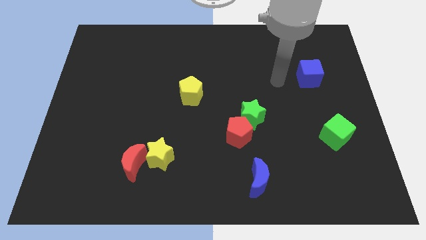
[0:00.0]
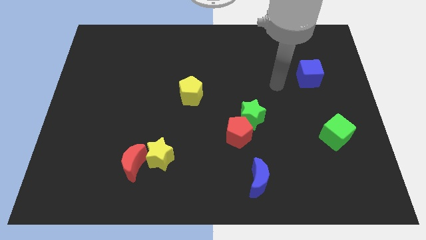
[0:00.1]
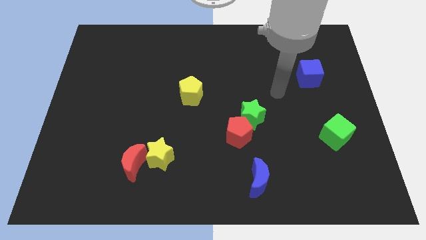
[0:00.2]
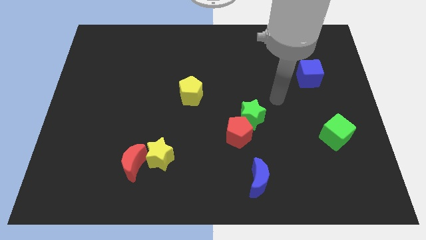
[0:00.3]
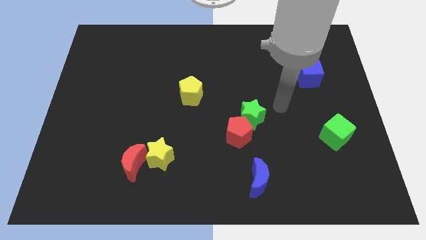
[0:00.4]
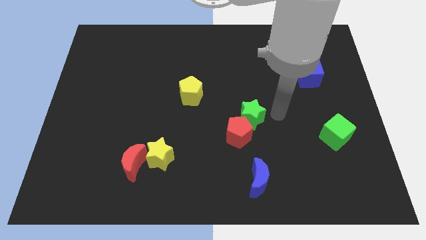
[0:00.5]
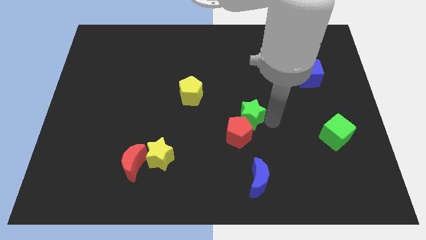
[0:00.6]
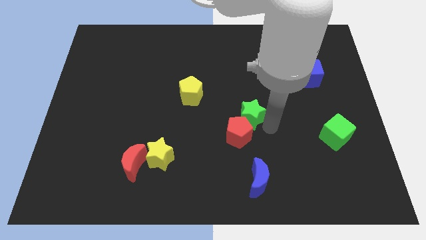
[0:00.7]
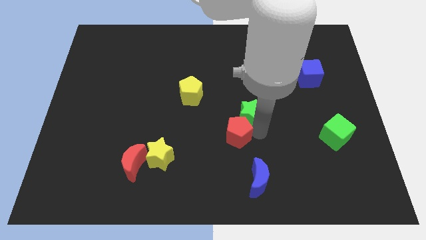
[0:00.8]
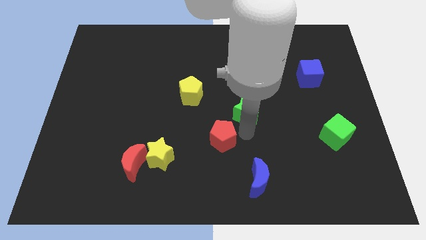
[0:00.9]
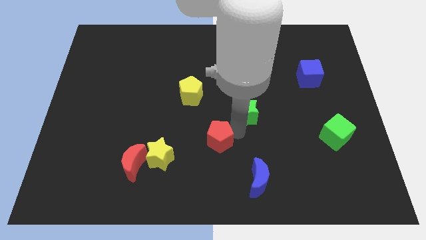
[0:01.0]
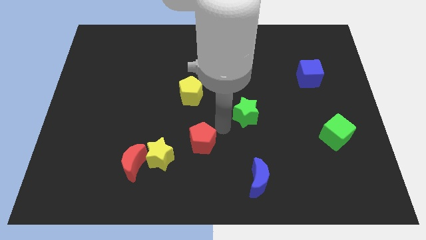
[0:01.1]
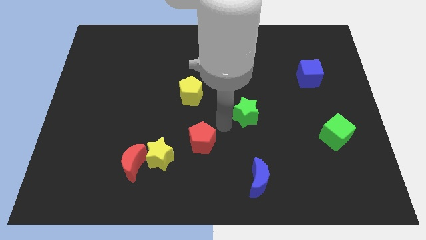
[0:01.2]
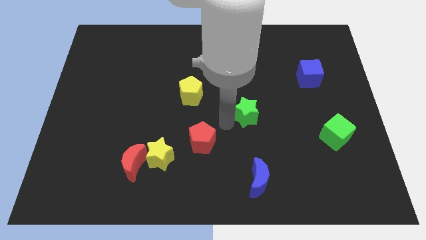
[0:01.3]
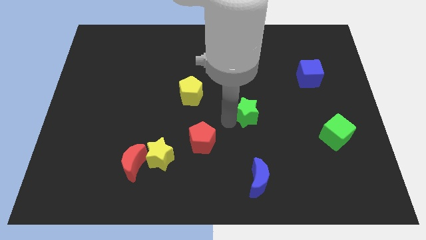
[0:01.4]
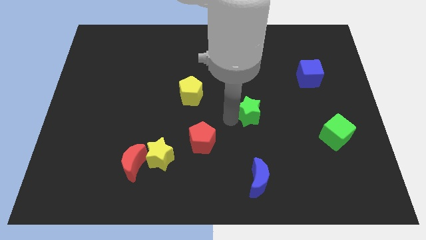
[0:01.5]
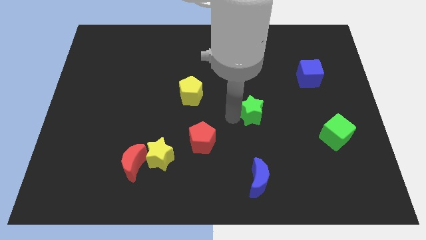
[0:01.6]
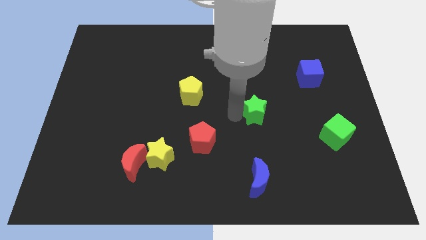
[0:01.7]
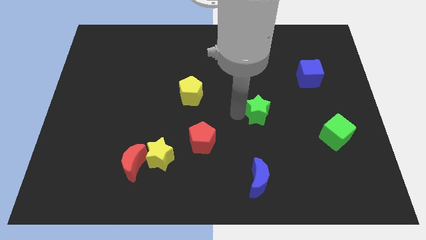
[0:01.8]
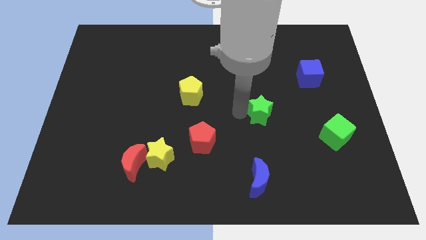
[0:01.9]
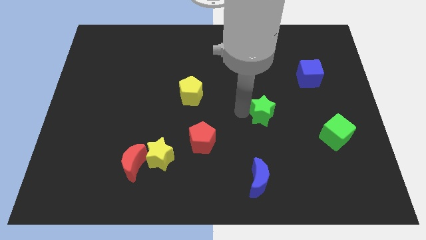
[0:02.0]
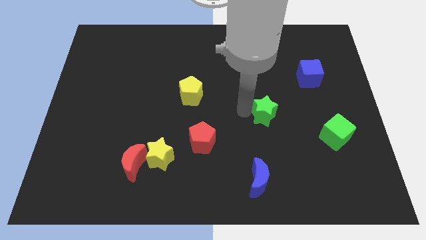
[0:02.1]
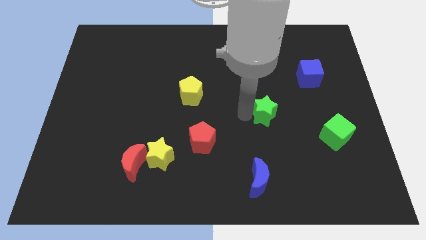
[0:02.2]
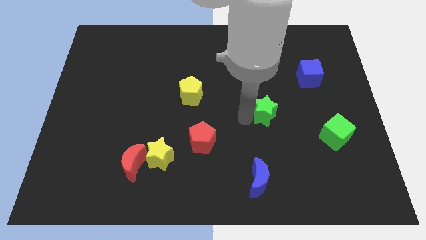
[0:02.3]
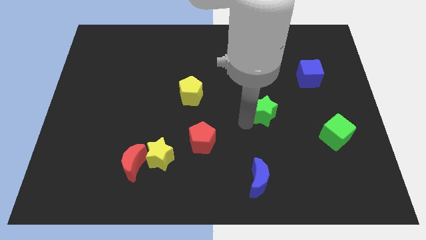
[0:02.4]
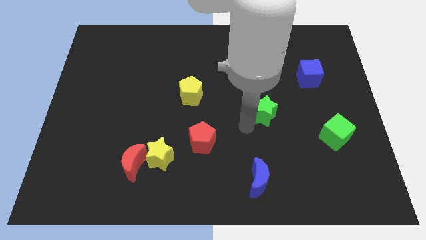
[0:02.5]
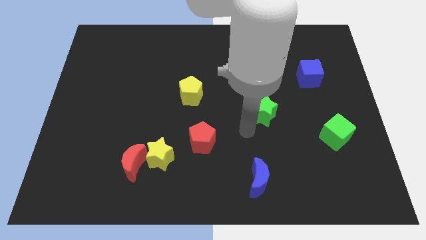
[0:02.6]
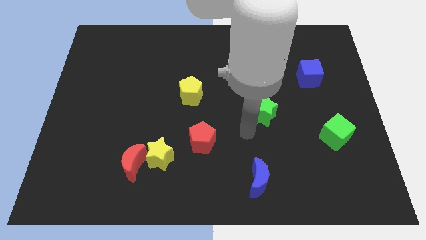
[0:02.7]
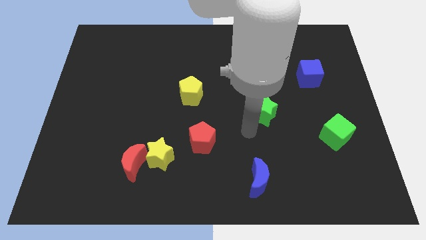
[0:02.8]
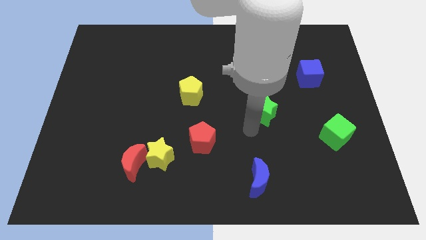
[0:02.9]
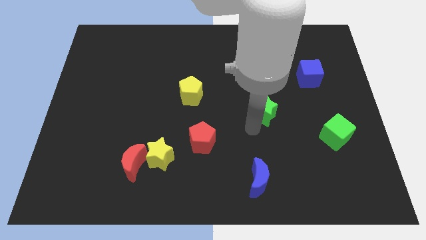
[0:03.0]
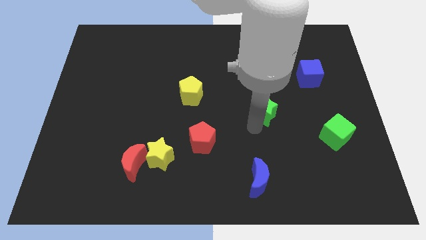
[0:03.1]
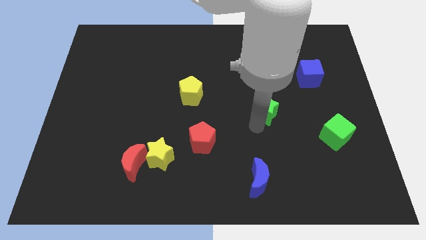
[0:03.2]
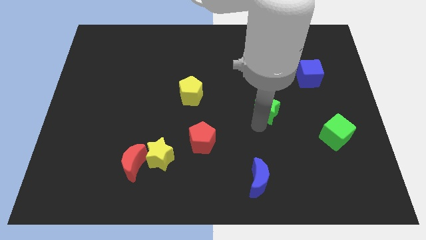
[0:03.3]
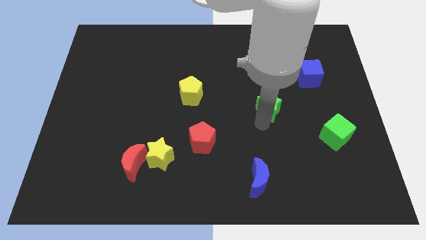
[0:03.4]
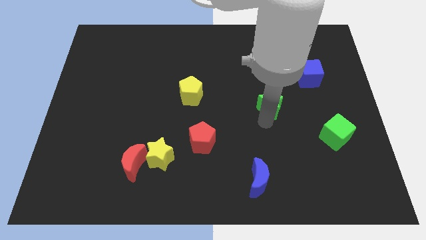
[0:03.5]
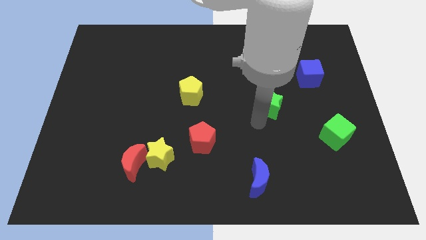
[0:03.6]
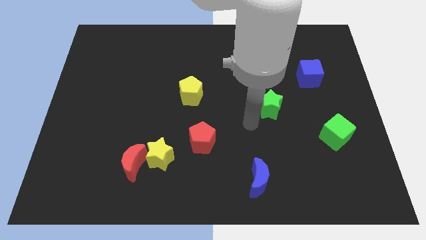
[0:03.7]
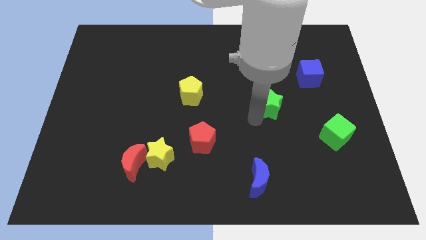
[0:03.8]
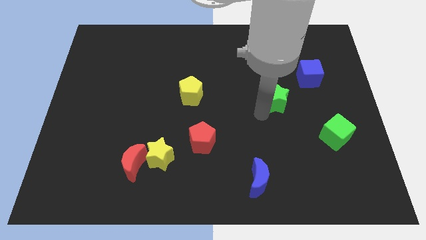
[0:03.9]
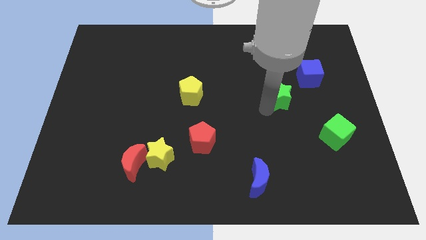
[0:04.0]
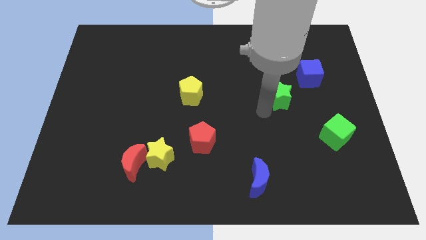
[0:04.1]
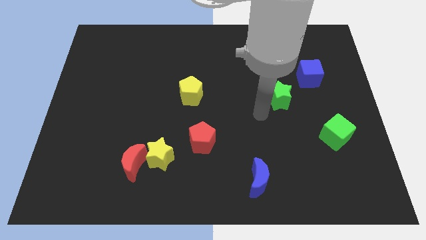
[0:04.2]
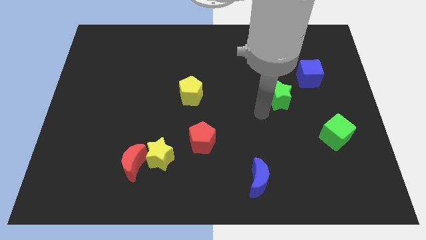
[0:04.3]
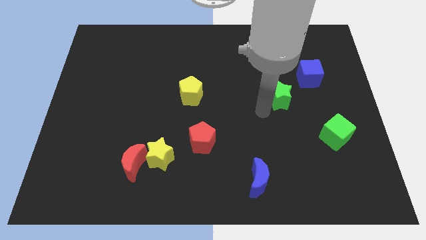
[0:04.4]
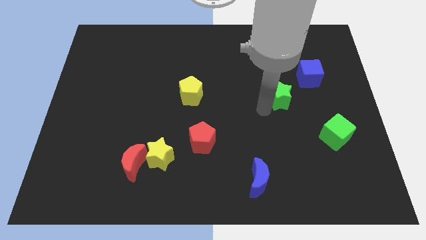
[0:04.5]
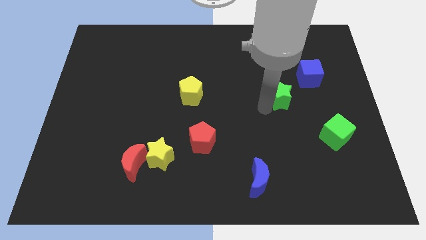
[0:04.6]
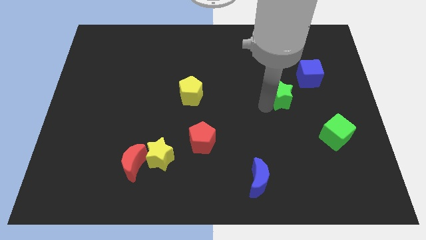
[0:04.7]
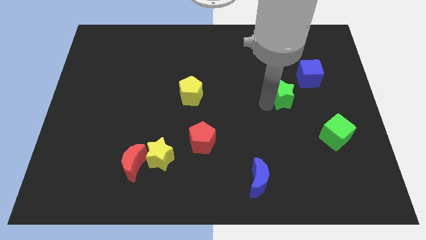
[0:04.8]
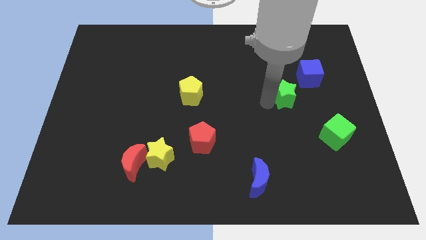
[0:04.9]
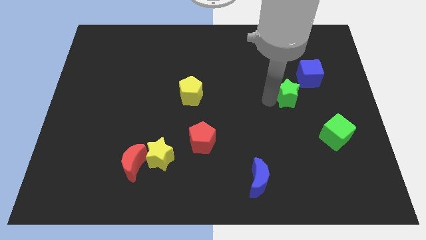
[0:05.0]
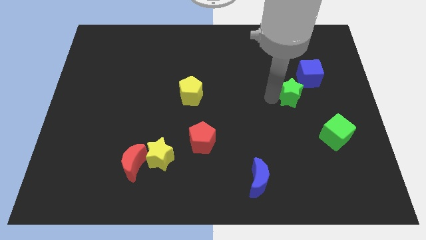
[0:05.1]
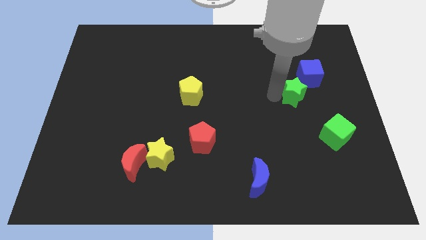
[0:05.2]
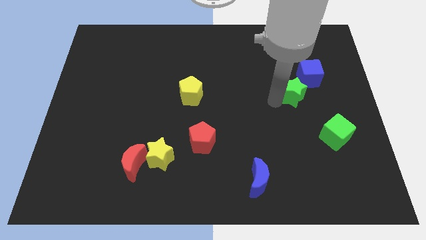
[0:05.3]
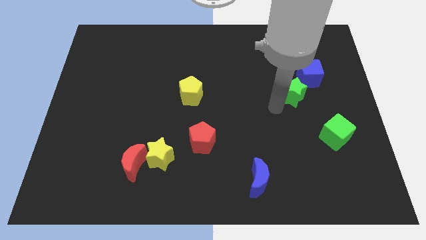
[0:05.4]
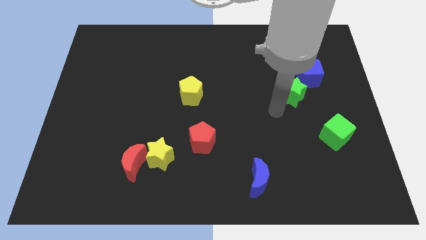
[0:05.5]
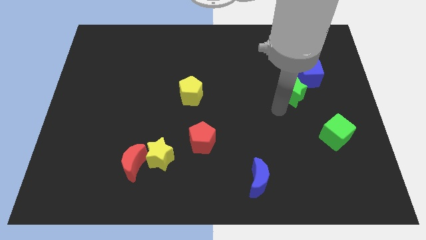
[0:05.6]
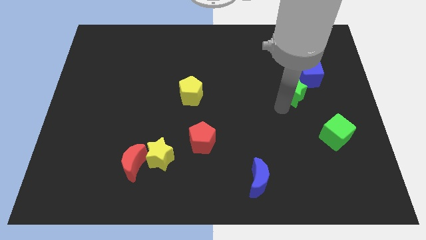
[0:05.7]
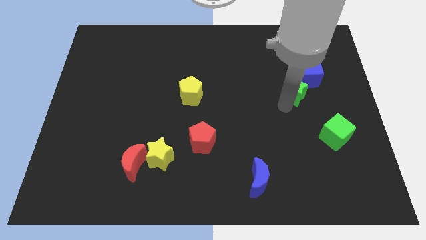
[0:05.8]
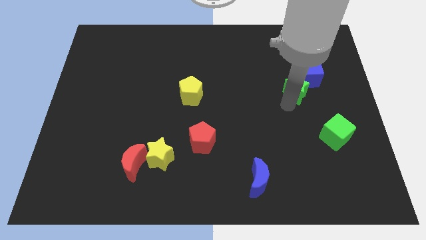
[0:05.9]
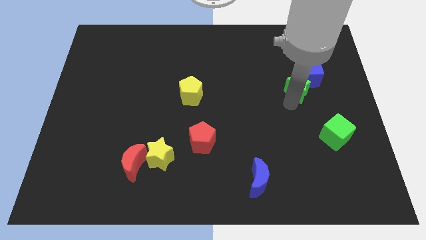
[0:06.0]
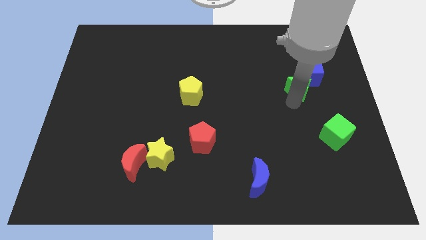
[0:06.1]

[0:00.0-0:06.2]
put the green star to the blue cube
